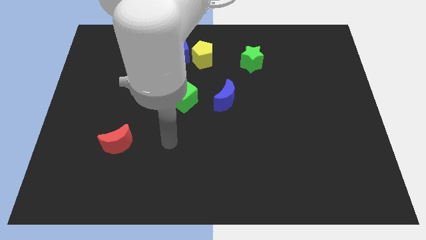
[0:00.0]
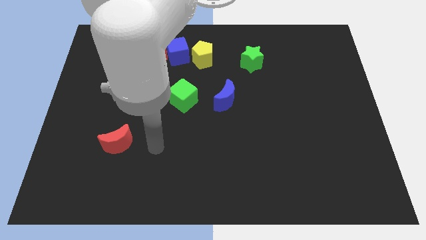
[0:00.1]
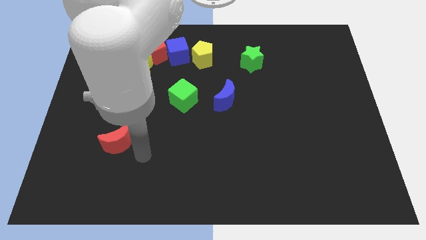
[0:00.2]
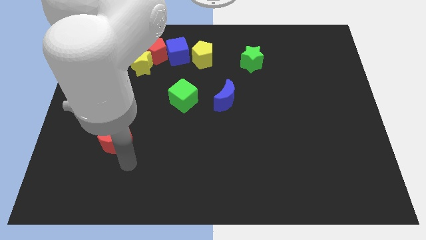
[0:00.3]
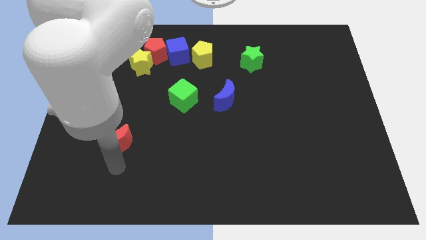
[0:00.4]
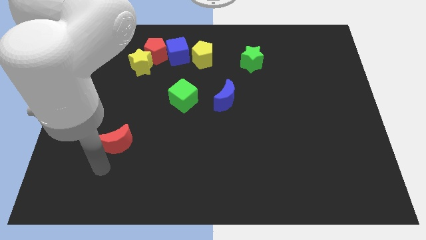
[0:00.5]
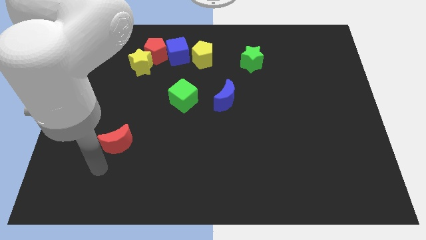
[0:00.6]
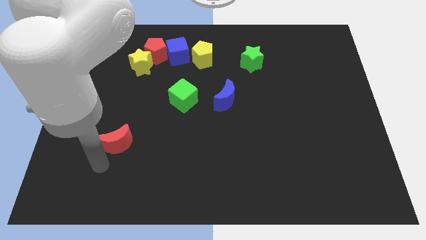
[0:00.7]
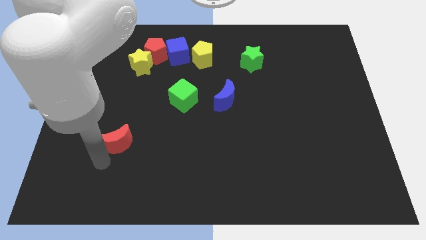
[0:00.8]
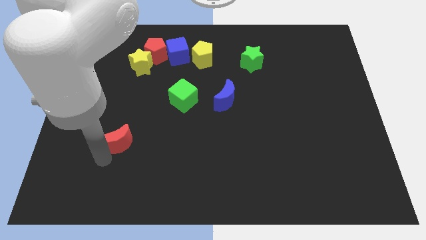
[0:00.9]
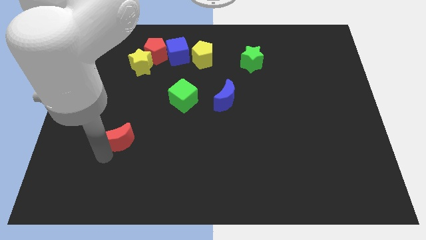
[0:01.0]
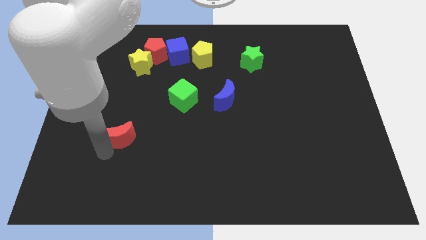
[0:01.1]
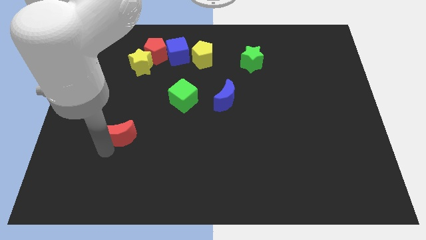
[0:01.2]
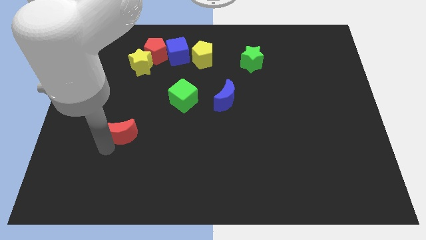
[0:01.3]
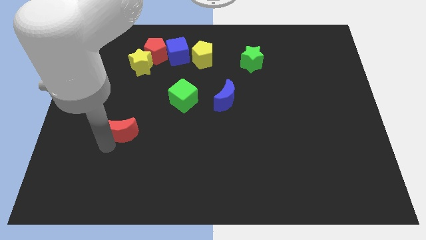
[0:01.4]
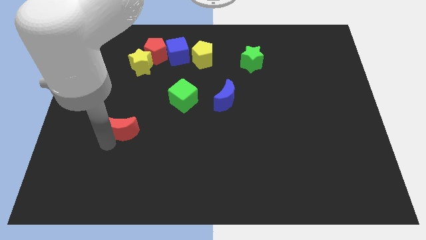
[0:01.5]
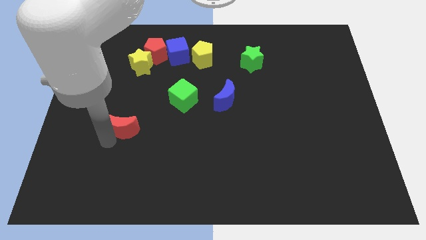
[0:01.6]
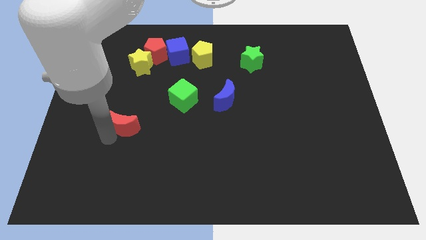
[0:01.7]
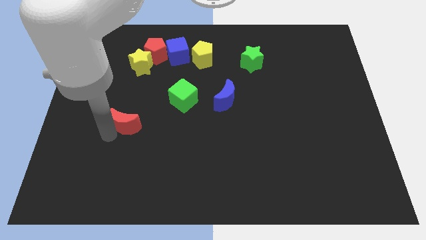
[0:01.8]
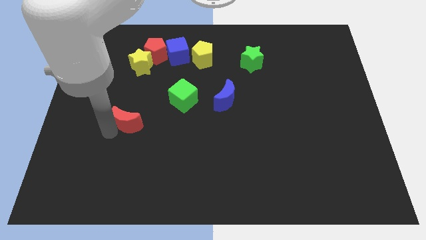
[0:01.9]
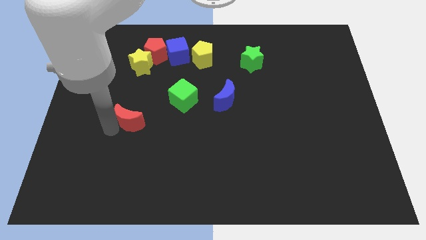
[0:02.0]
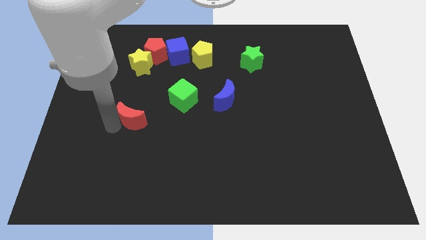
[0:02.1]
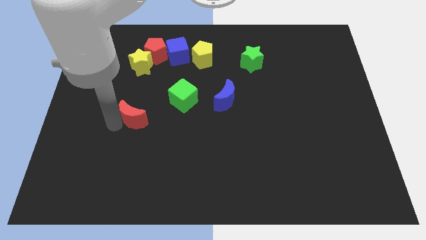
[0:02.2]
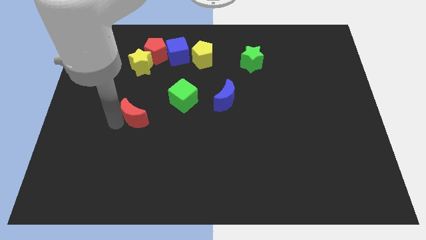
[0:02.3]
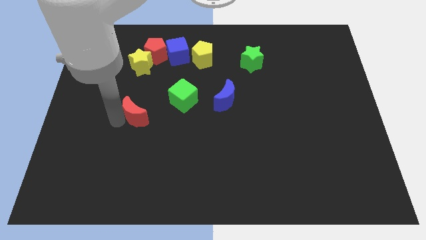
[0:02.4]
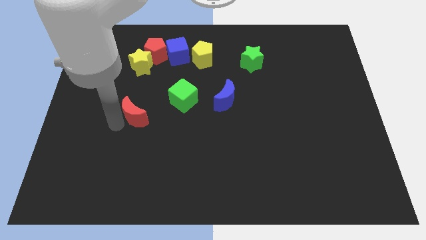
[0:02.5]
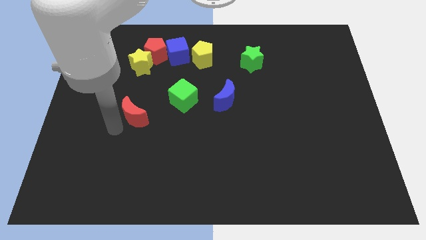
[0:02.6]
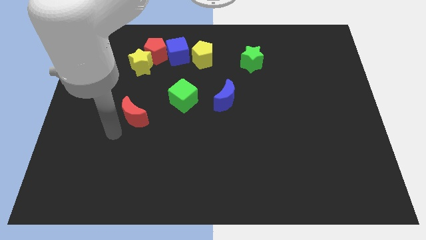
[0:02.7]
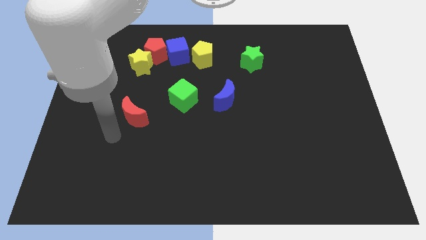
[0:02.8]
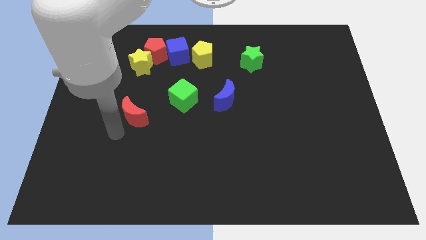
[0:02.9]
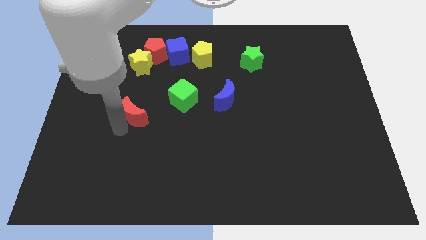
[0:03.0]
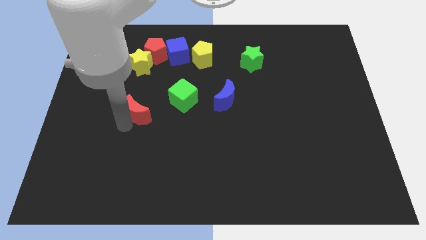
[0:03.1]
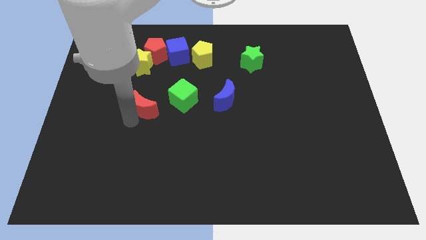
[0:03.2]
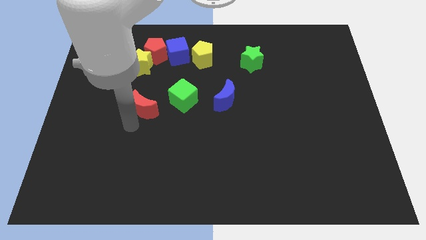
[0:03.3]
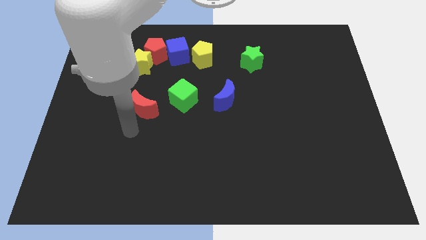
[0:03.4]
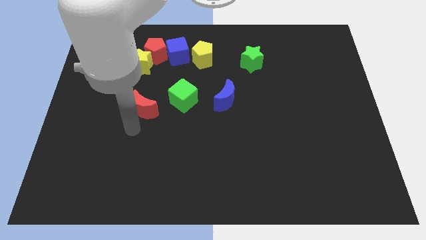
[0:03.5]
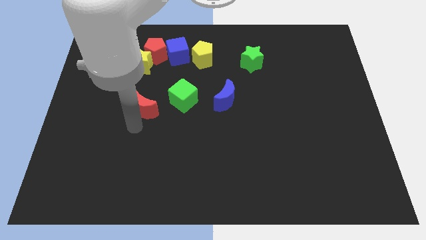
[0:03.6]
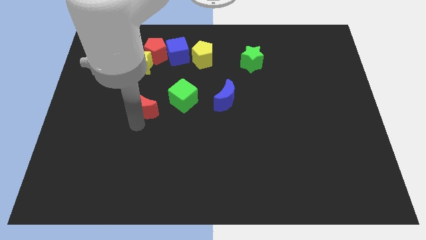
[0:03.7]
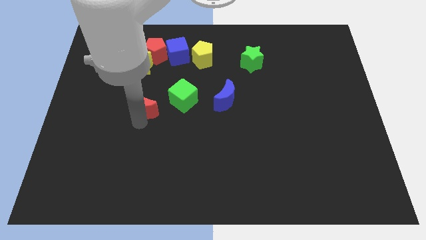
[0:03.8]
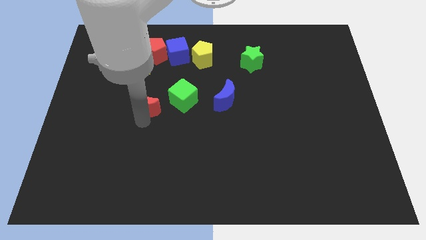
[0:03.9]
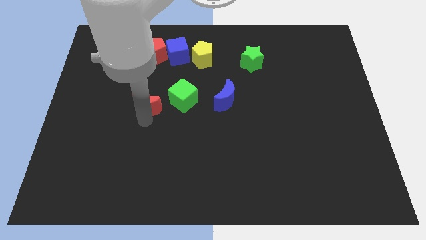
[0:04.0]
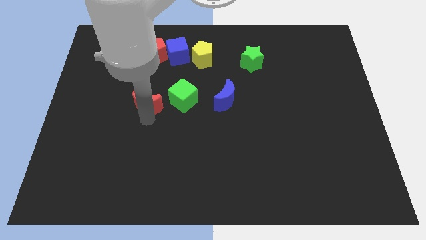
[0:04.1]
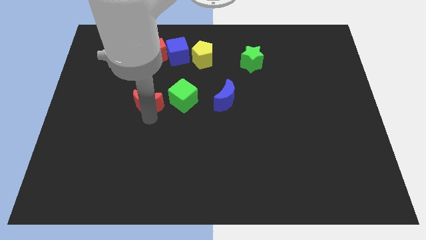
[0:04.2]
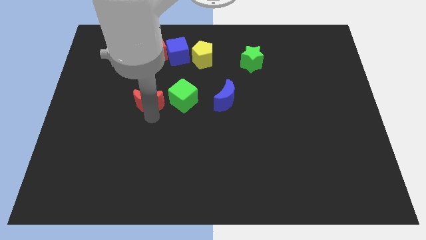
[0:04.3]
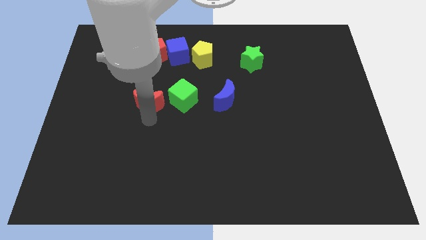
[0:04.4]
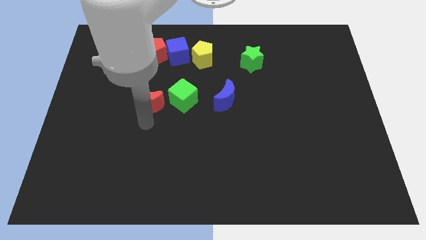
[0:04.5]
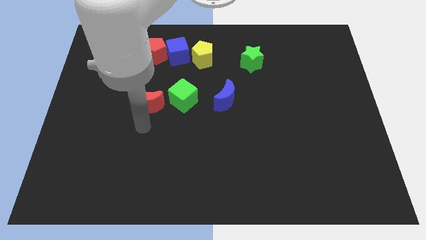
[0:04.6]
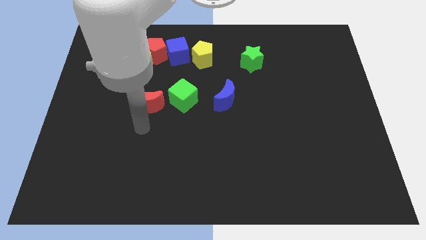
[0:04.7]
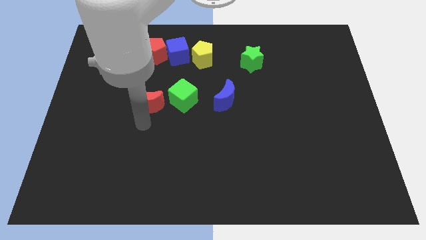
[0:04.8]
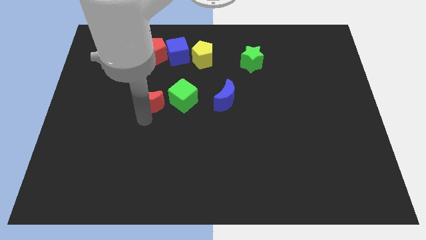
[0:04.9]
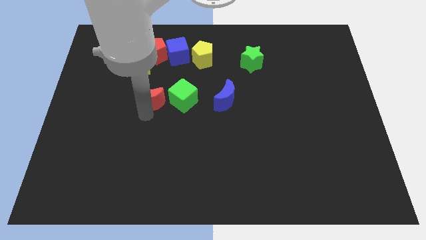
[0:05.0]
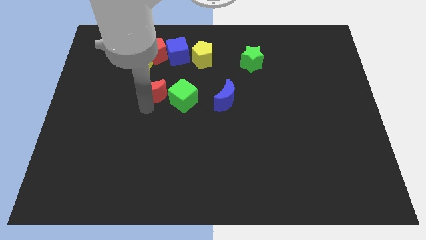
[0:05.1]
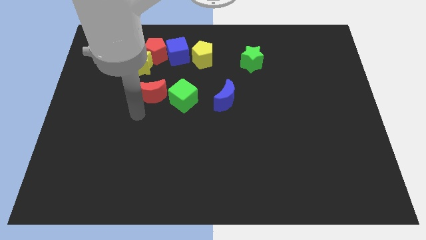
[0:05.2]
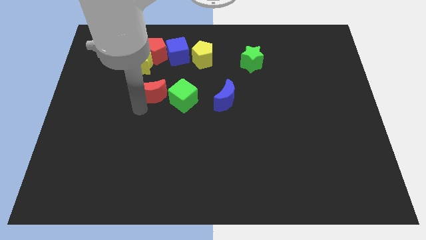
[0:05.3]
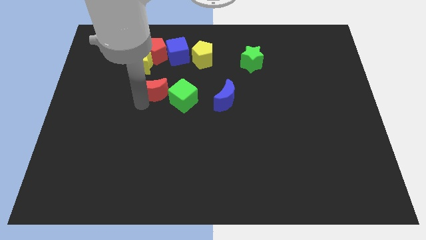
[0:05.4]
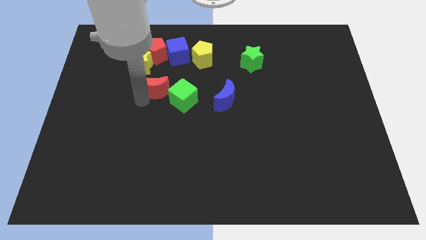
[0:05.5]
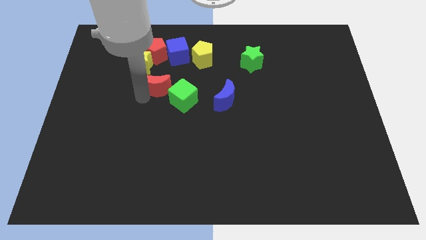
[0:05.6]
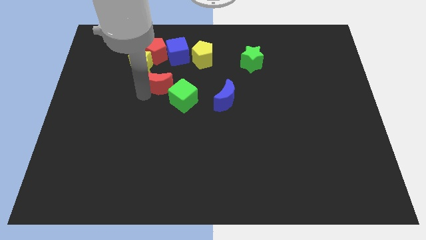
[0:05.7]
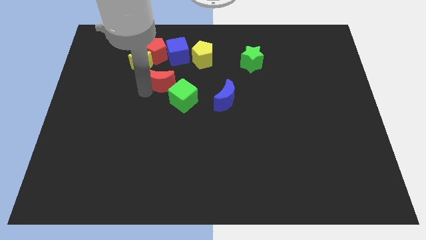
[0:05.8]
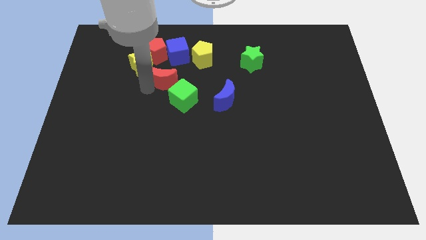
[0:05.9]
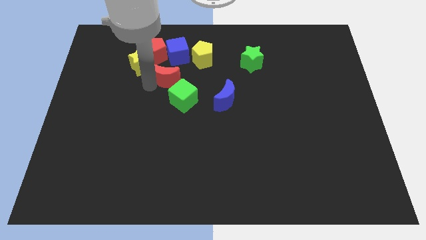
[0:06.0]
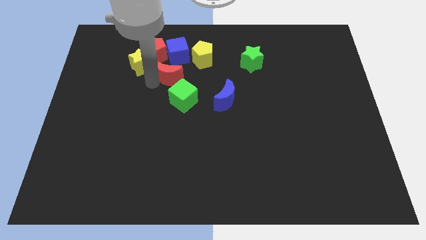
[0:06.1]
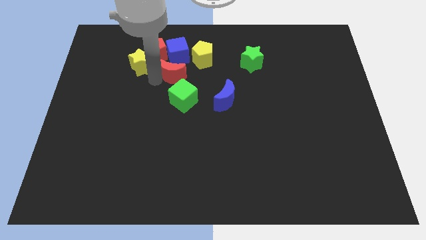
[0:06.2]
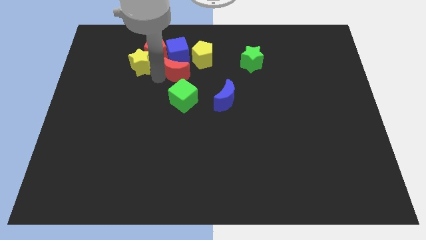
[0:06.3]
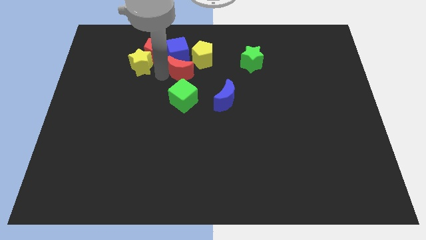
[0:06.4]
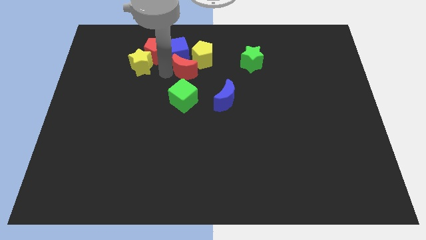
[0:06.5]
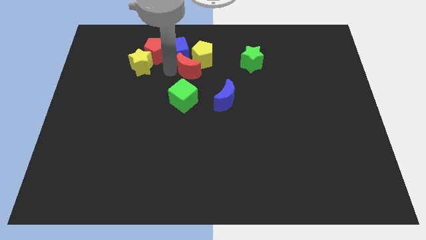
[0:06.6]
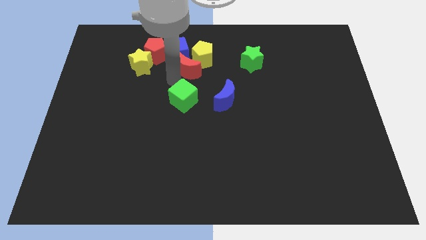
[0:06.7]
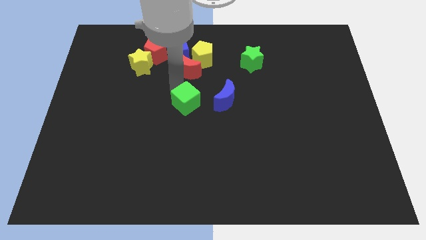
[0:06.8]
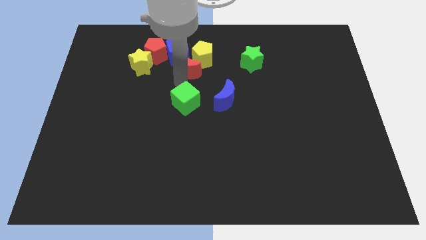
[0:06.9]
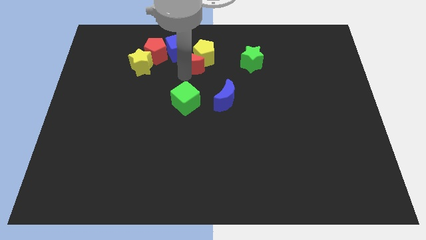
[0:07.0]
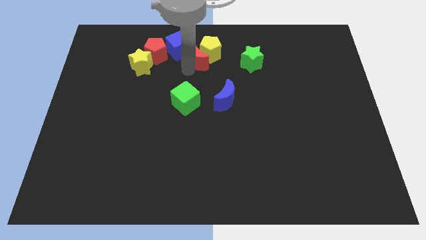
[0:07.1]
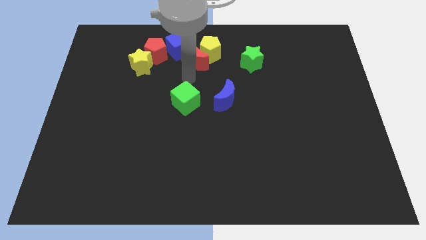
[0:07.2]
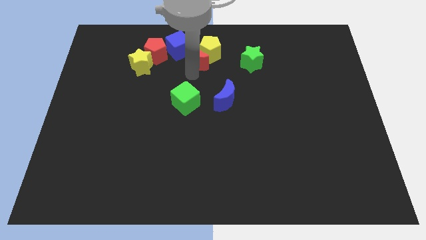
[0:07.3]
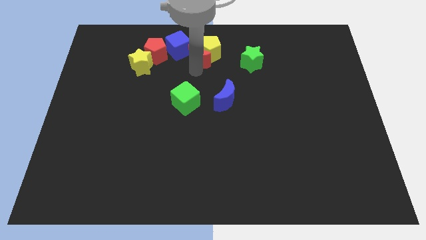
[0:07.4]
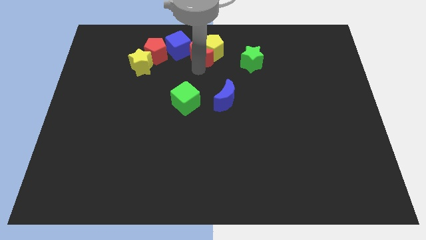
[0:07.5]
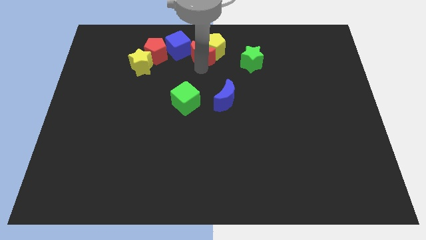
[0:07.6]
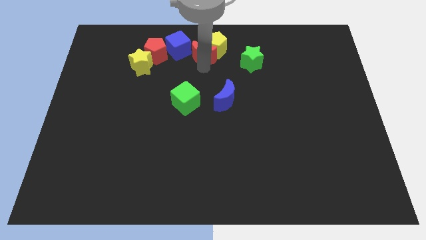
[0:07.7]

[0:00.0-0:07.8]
push the red moon to the top side
